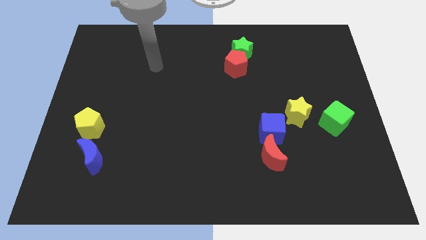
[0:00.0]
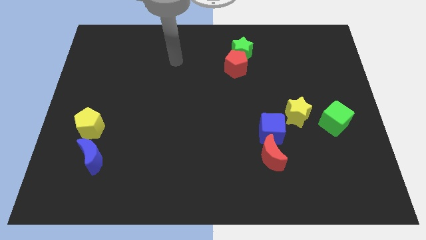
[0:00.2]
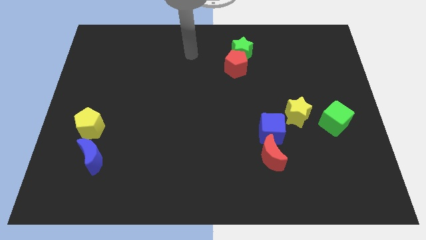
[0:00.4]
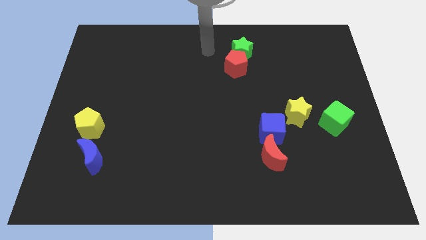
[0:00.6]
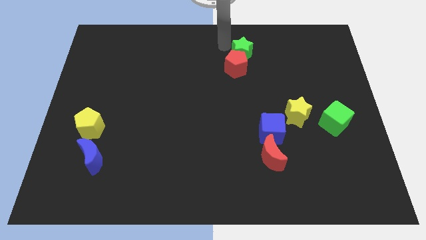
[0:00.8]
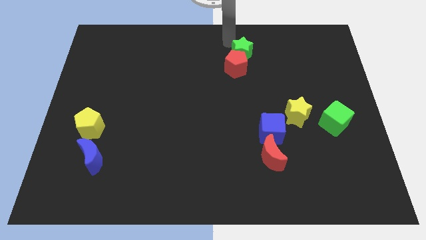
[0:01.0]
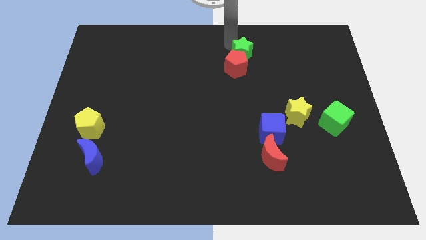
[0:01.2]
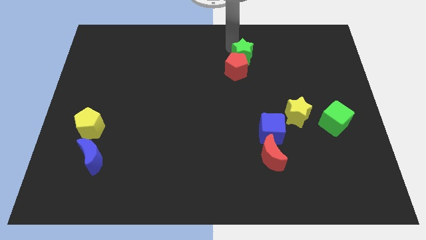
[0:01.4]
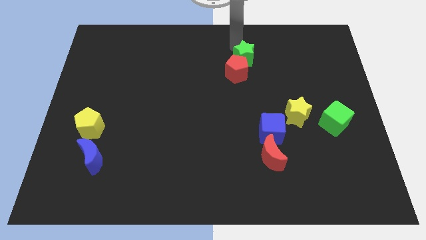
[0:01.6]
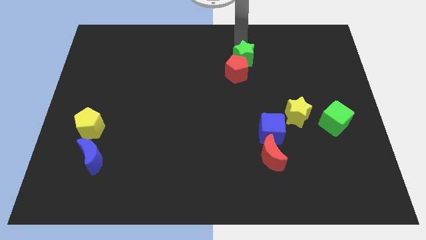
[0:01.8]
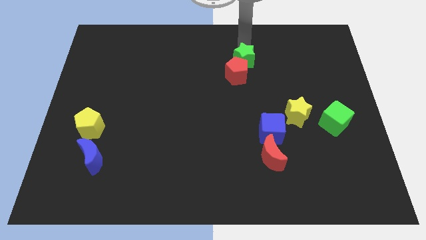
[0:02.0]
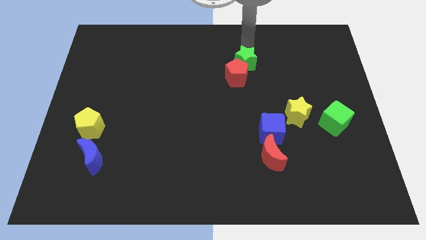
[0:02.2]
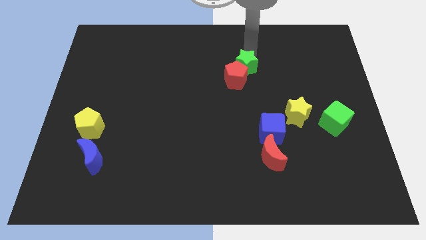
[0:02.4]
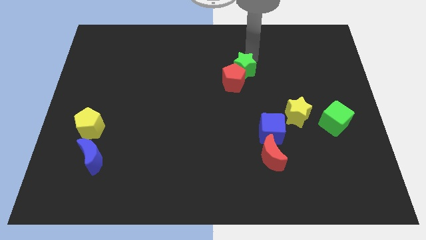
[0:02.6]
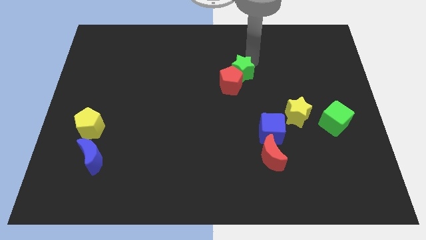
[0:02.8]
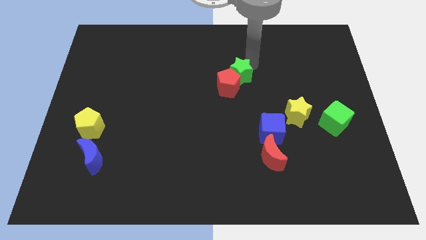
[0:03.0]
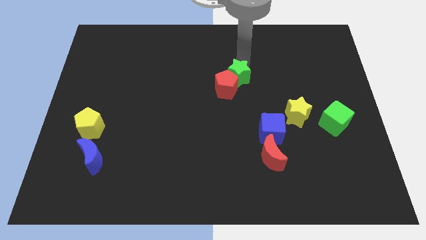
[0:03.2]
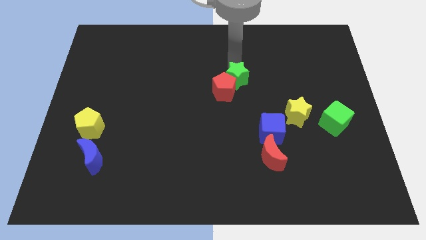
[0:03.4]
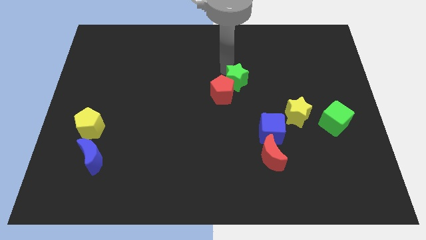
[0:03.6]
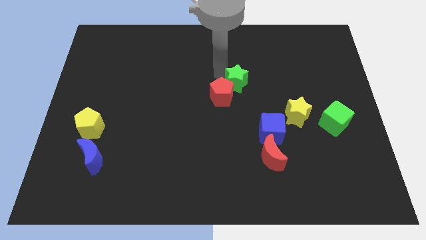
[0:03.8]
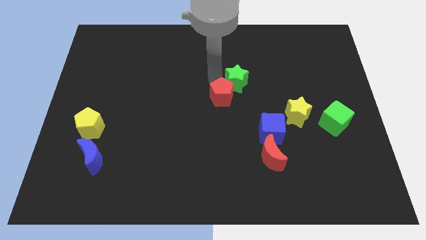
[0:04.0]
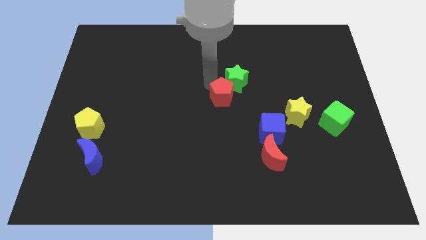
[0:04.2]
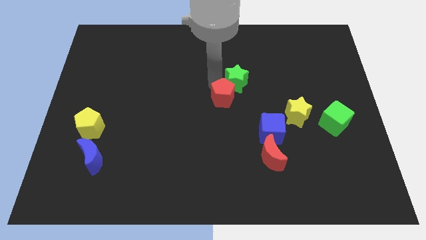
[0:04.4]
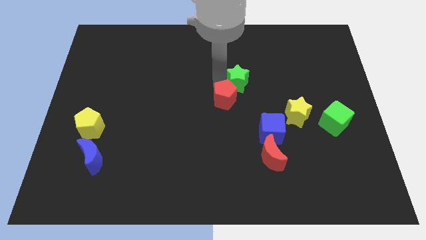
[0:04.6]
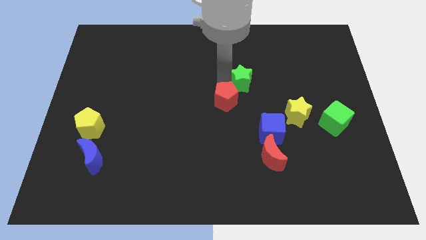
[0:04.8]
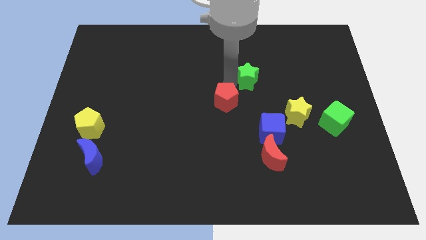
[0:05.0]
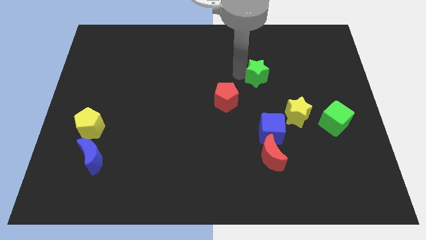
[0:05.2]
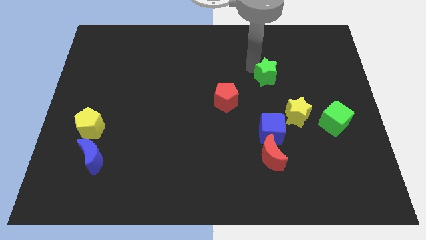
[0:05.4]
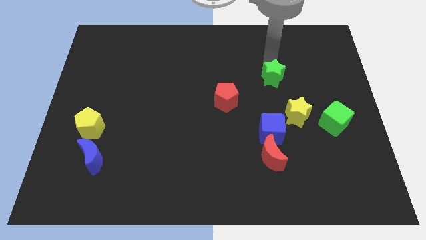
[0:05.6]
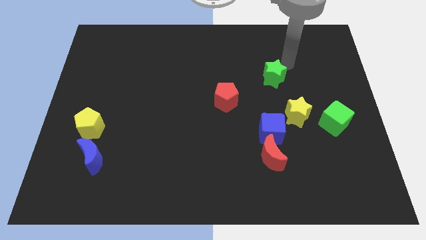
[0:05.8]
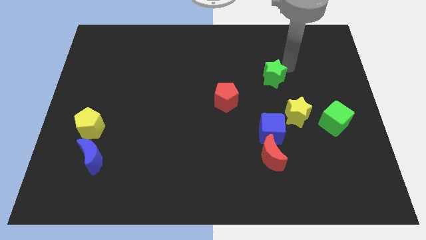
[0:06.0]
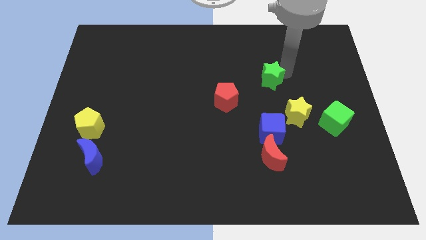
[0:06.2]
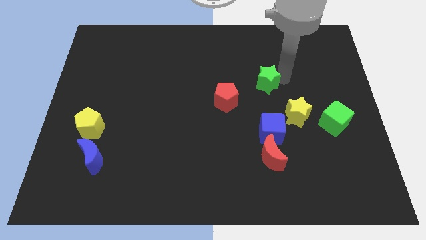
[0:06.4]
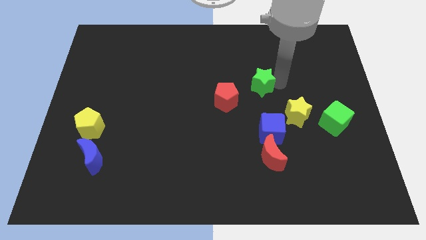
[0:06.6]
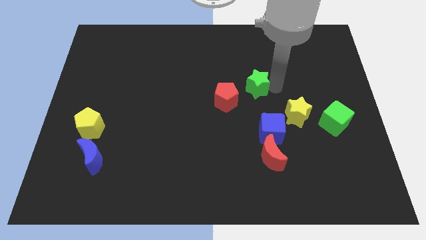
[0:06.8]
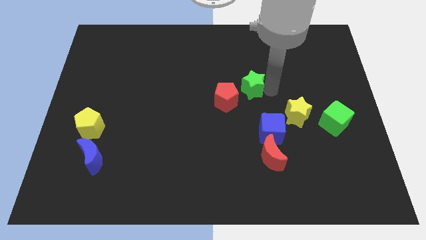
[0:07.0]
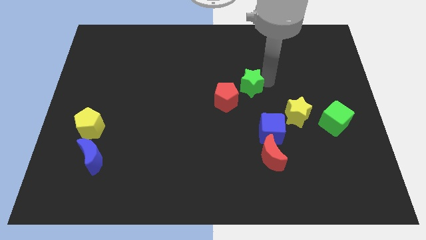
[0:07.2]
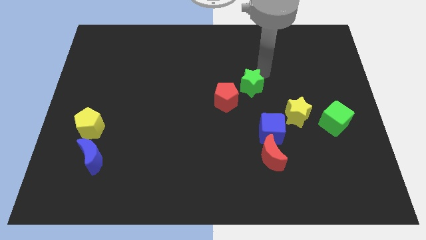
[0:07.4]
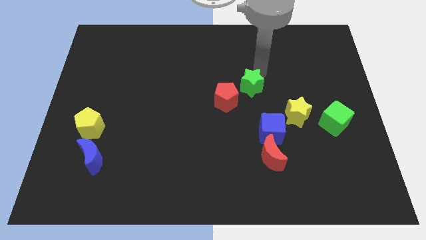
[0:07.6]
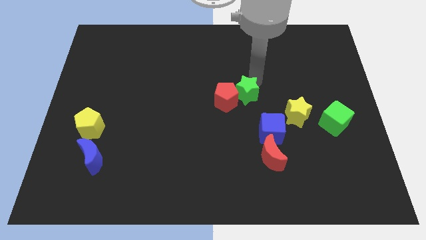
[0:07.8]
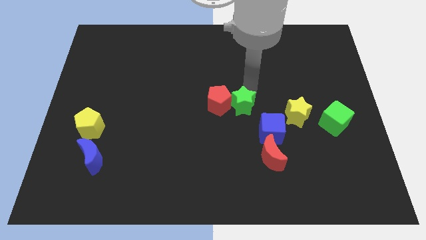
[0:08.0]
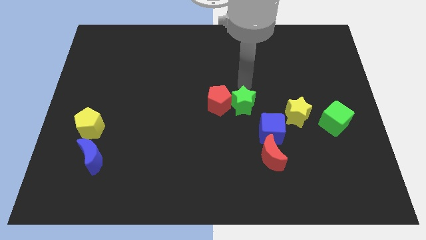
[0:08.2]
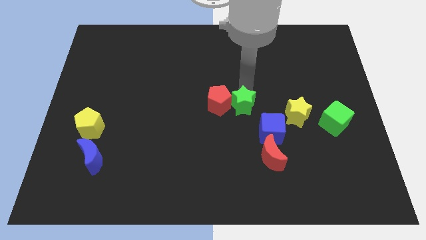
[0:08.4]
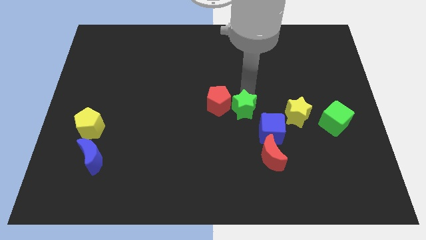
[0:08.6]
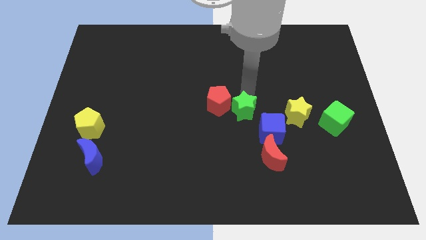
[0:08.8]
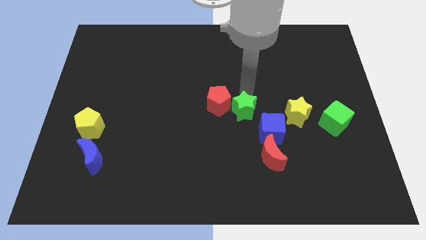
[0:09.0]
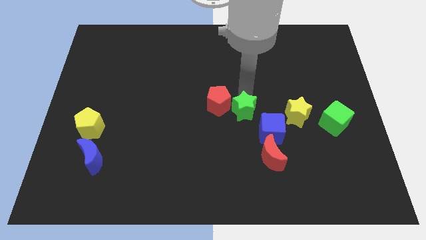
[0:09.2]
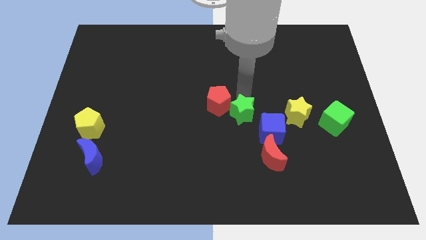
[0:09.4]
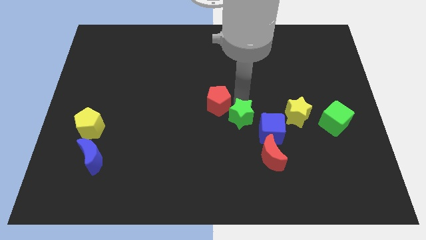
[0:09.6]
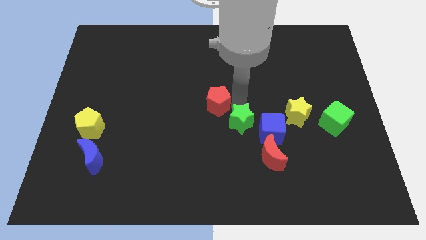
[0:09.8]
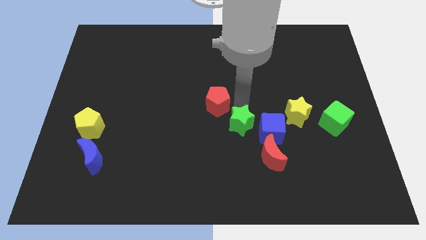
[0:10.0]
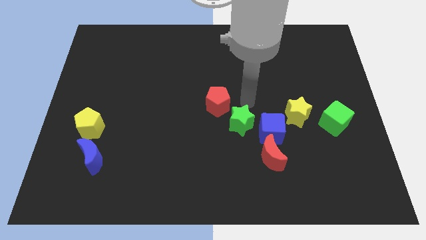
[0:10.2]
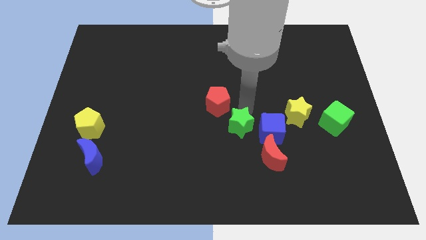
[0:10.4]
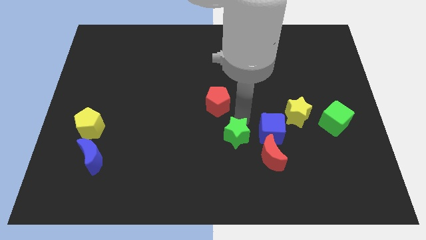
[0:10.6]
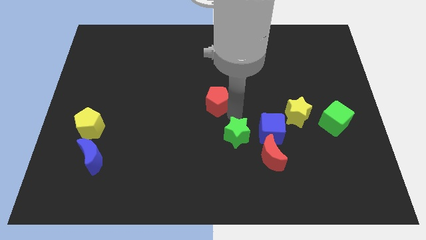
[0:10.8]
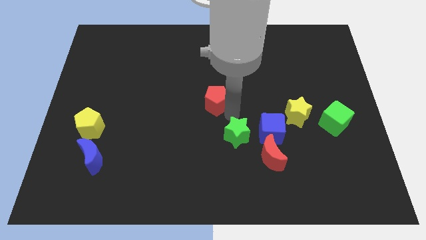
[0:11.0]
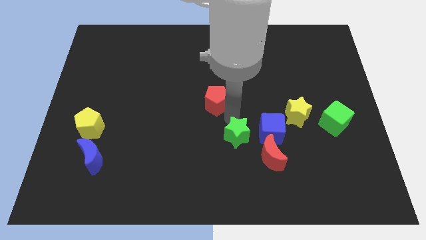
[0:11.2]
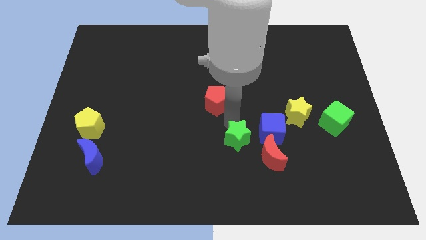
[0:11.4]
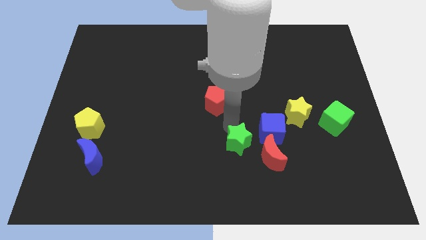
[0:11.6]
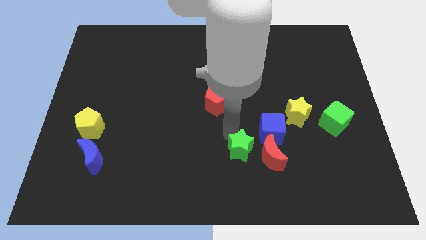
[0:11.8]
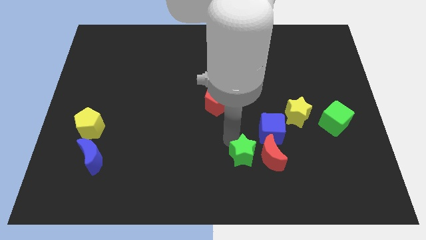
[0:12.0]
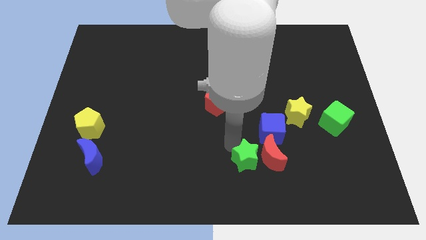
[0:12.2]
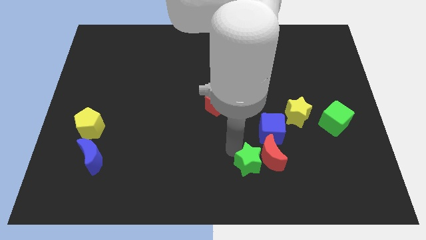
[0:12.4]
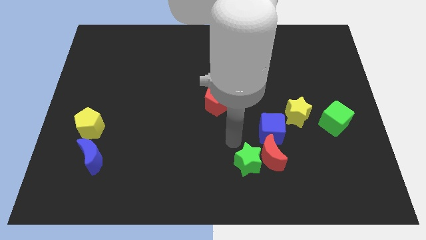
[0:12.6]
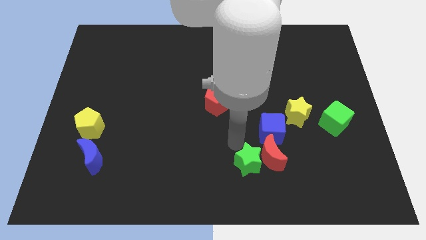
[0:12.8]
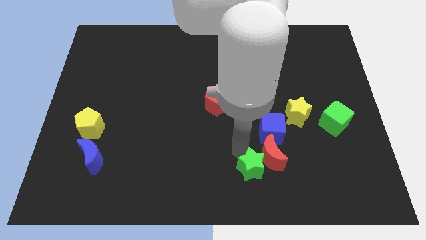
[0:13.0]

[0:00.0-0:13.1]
push the green star to the bottom side of the blue cube

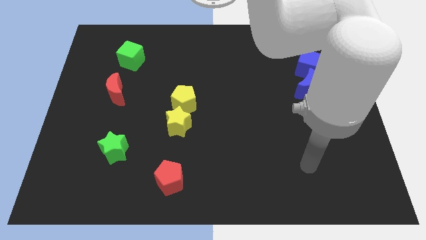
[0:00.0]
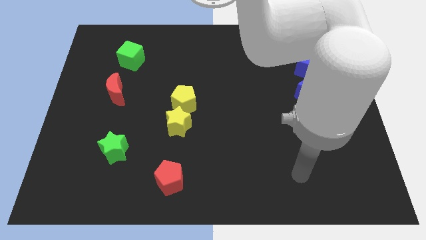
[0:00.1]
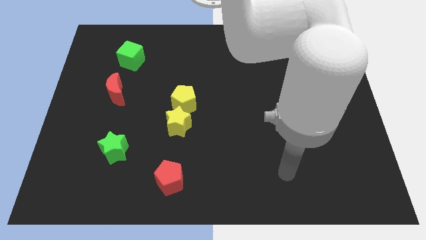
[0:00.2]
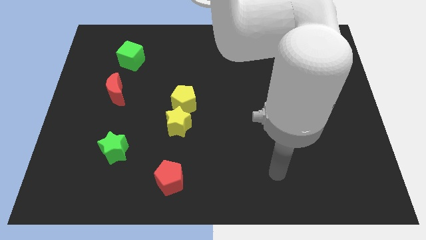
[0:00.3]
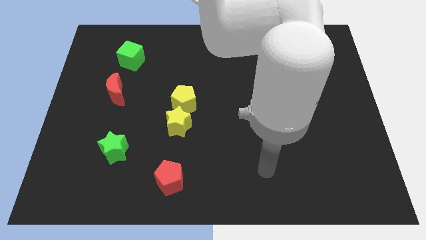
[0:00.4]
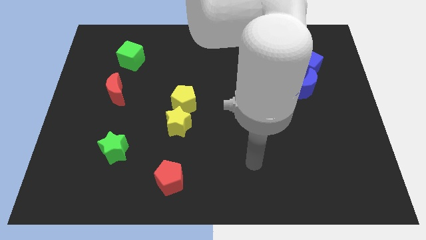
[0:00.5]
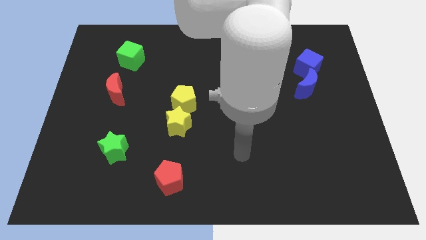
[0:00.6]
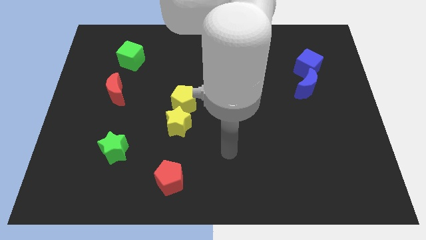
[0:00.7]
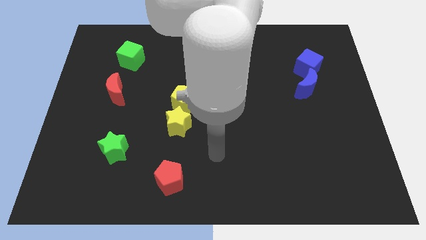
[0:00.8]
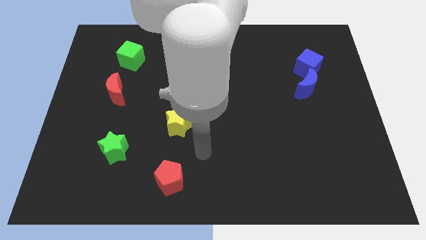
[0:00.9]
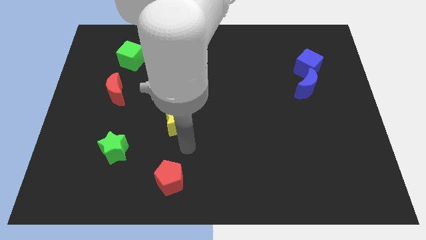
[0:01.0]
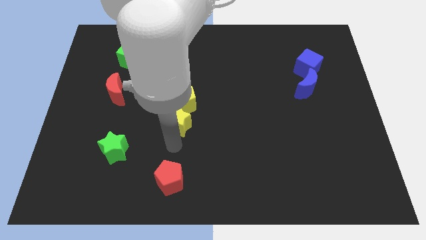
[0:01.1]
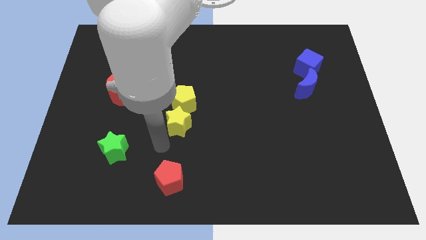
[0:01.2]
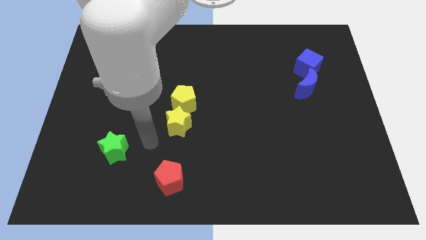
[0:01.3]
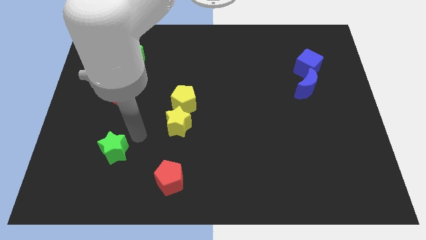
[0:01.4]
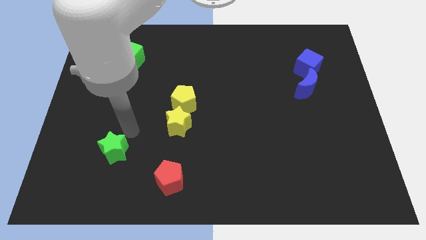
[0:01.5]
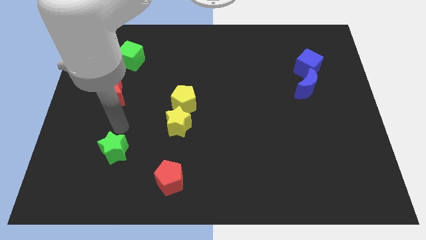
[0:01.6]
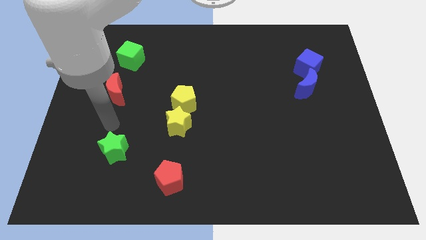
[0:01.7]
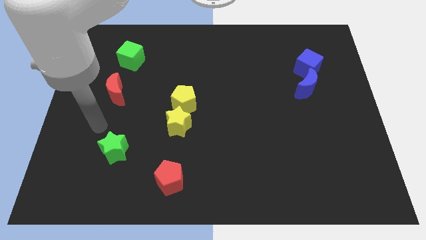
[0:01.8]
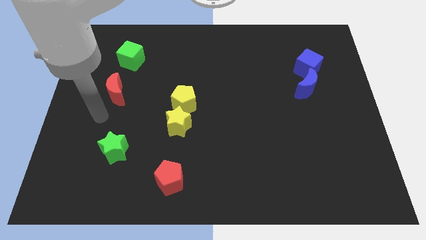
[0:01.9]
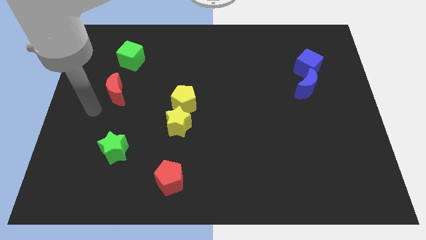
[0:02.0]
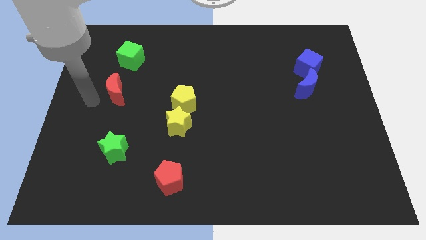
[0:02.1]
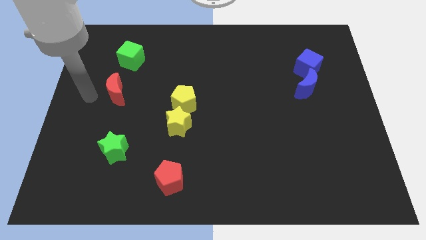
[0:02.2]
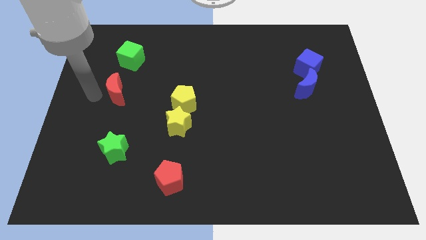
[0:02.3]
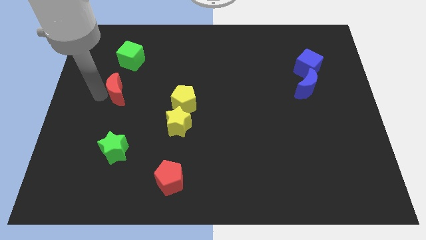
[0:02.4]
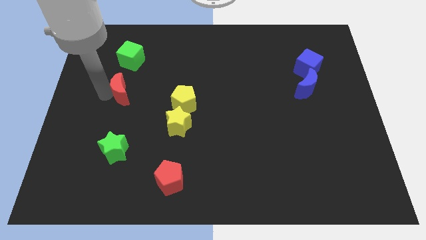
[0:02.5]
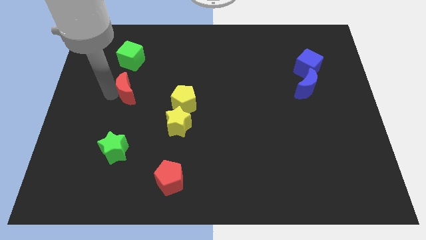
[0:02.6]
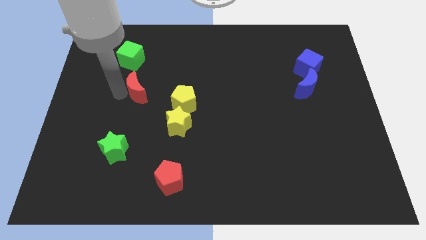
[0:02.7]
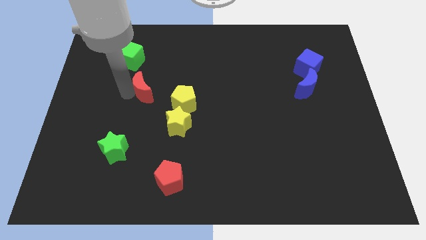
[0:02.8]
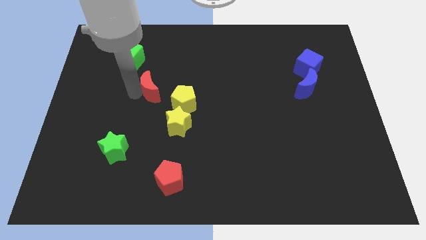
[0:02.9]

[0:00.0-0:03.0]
slide the red moon to the top left of the yellow pentagon
